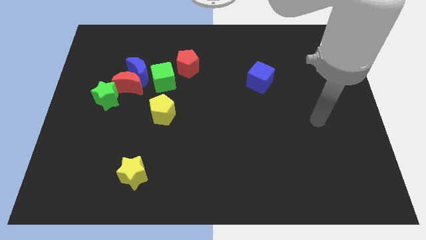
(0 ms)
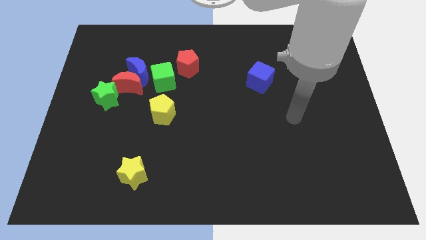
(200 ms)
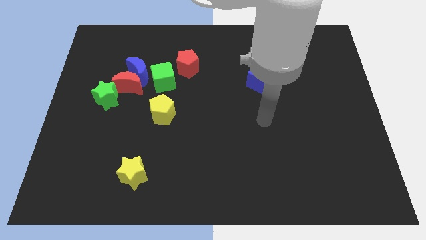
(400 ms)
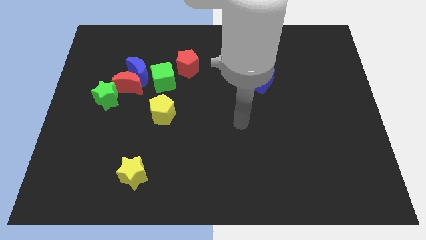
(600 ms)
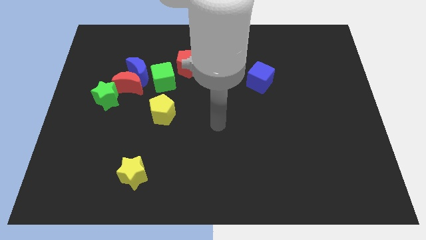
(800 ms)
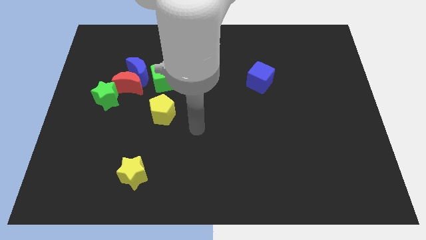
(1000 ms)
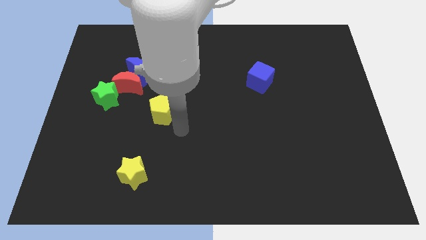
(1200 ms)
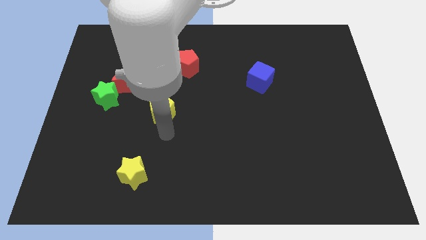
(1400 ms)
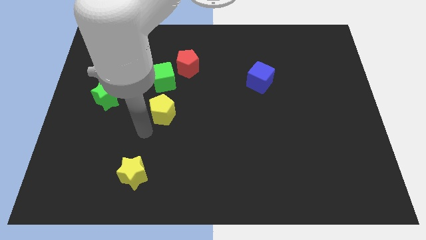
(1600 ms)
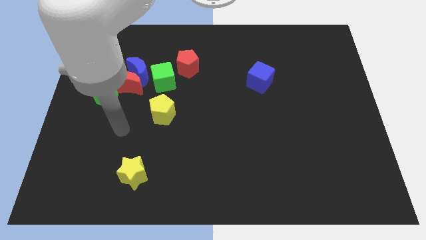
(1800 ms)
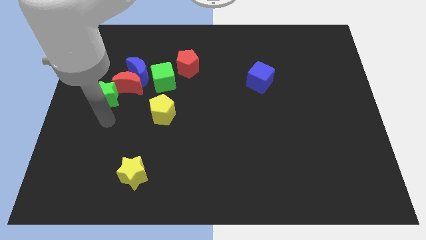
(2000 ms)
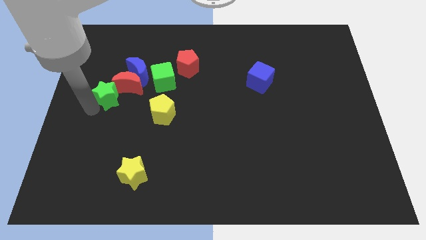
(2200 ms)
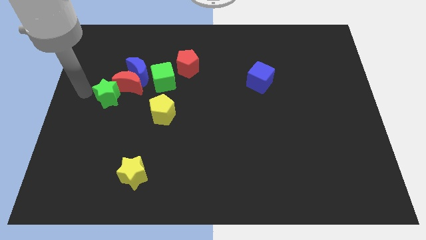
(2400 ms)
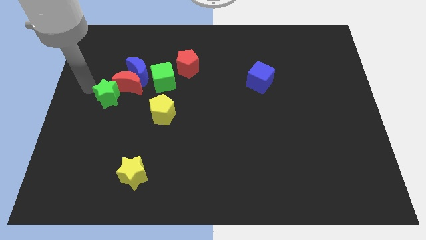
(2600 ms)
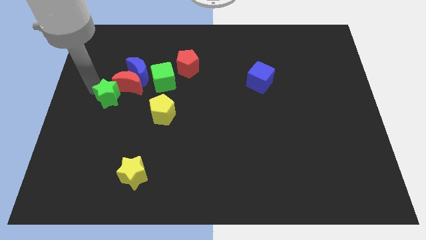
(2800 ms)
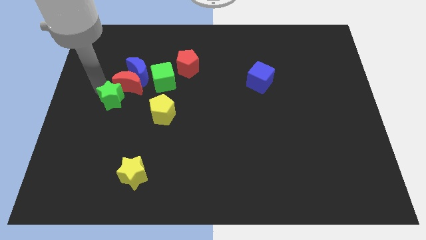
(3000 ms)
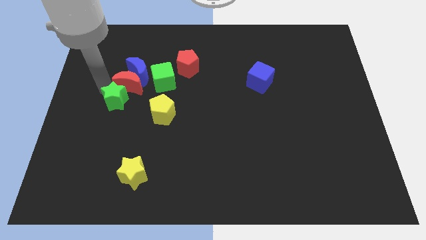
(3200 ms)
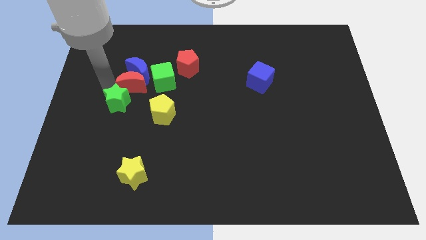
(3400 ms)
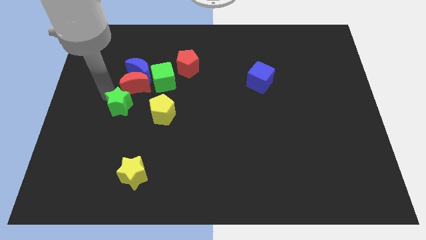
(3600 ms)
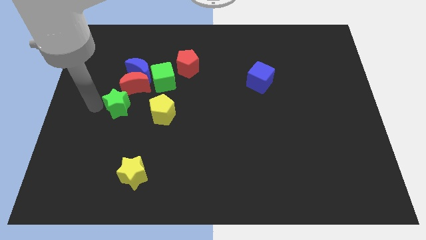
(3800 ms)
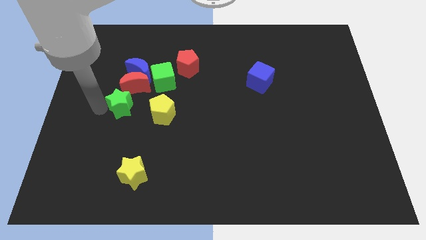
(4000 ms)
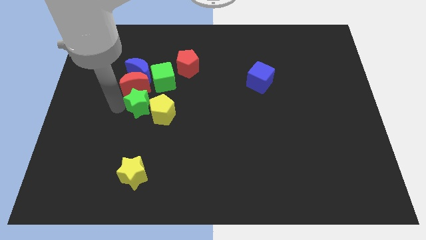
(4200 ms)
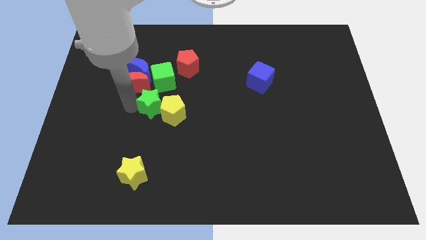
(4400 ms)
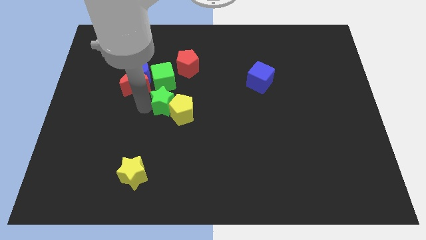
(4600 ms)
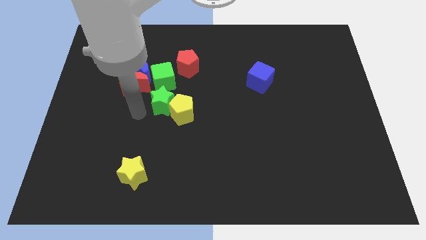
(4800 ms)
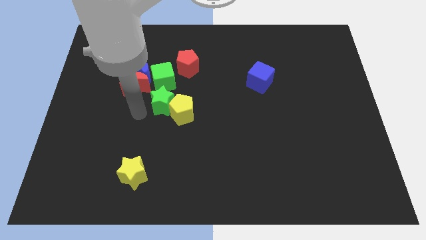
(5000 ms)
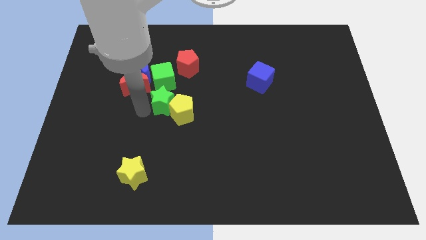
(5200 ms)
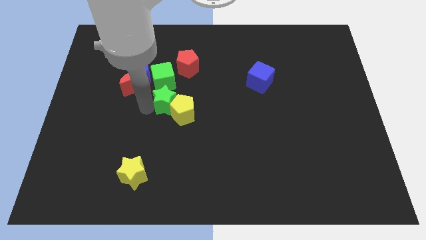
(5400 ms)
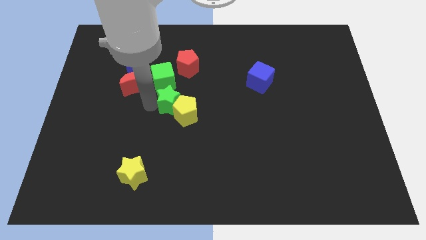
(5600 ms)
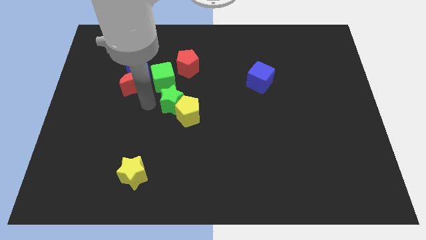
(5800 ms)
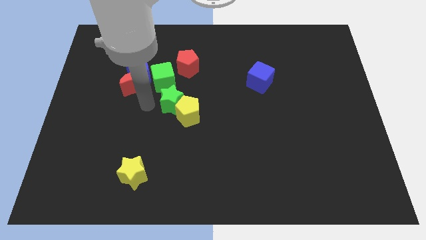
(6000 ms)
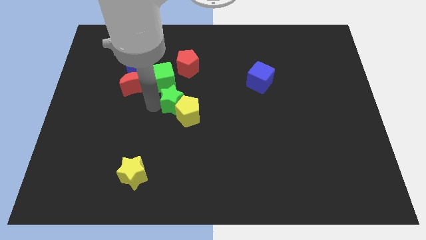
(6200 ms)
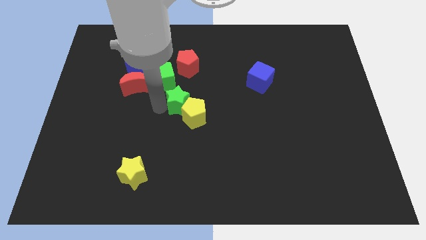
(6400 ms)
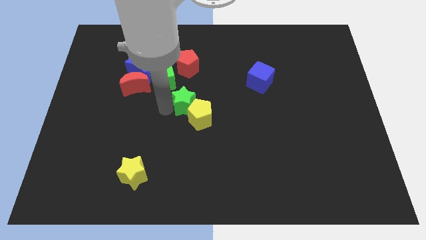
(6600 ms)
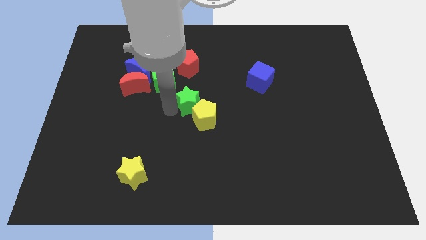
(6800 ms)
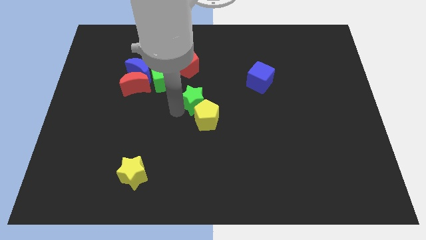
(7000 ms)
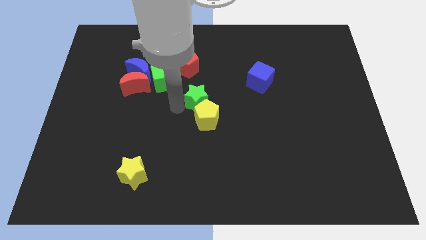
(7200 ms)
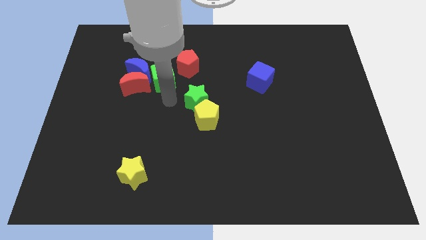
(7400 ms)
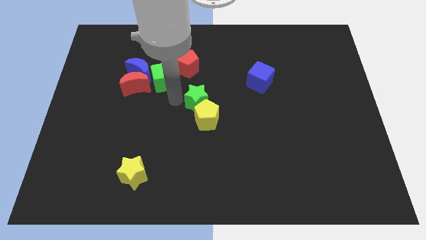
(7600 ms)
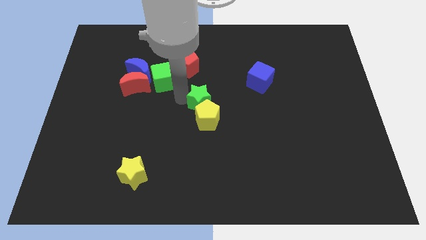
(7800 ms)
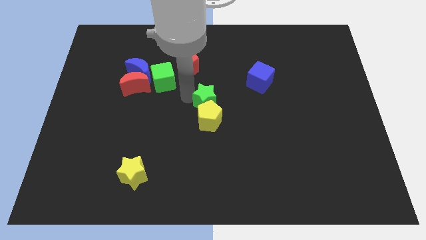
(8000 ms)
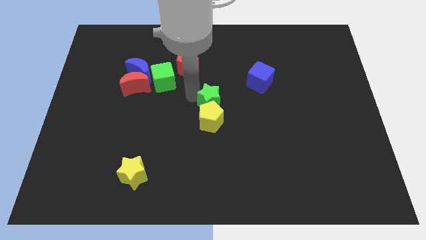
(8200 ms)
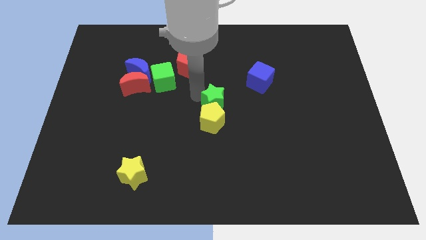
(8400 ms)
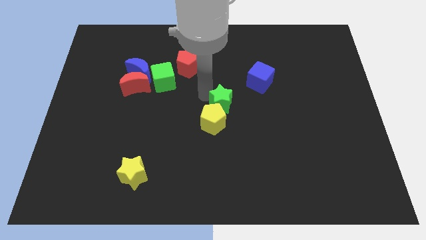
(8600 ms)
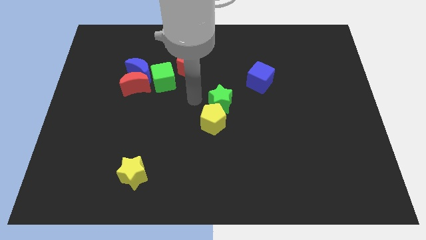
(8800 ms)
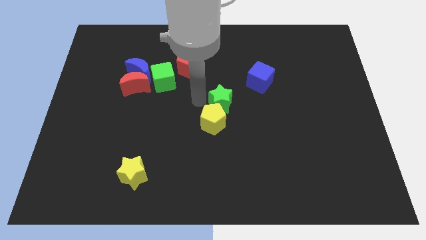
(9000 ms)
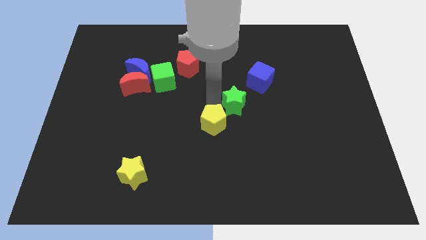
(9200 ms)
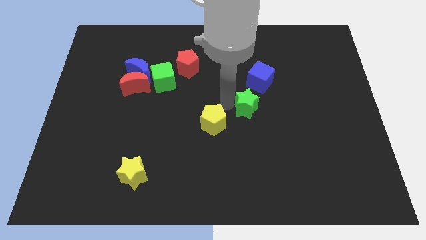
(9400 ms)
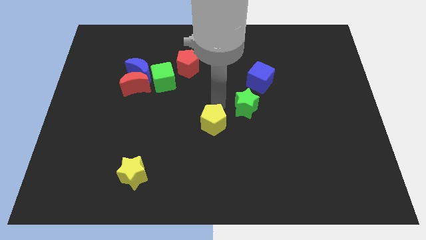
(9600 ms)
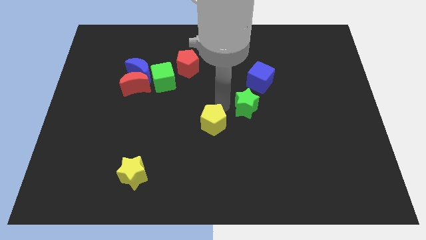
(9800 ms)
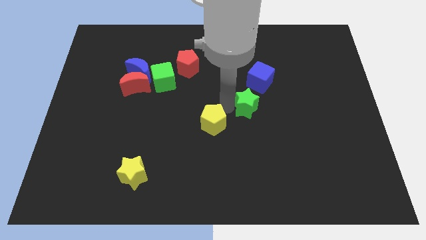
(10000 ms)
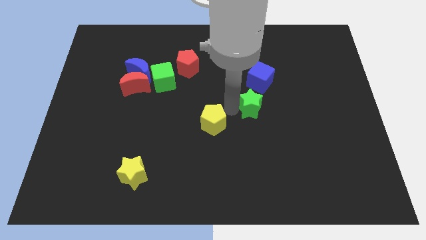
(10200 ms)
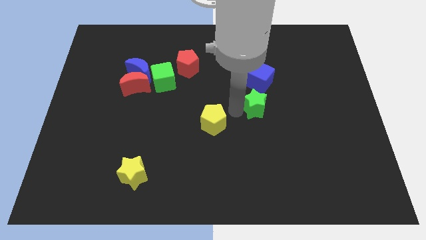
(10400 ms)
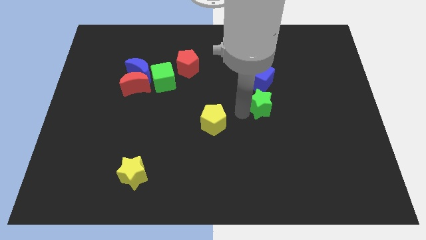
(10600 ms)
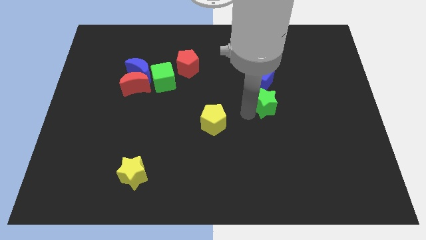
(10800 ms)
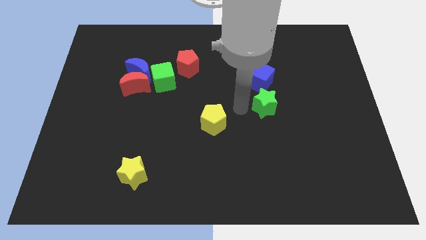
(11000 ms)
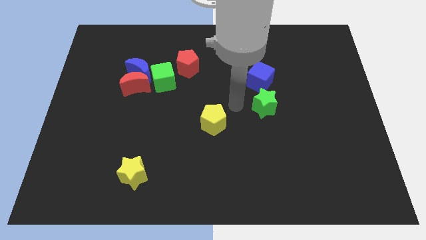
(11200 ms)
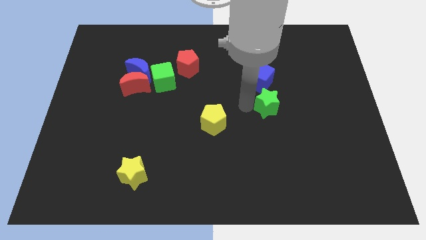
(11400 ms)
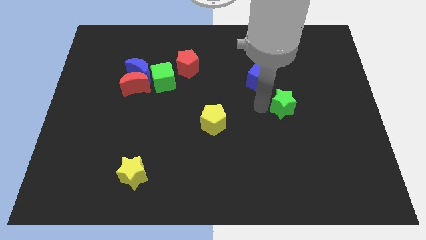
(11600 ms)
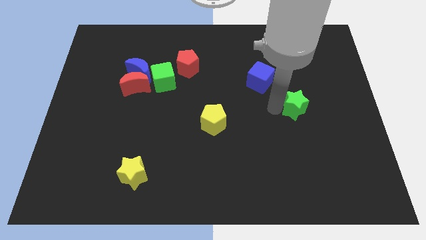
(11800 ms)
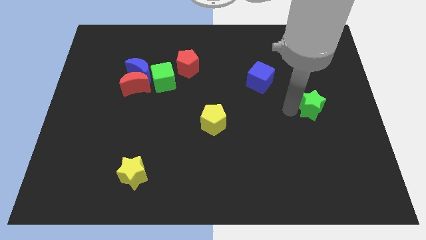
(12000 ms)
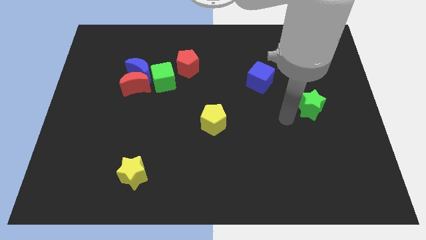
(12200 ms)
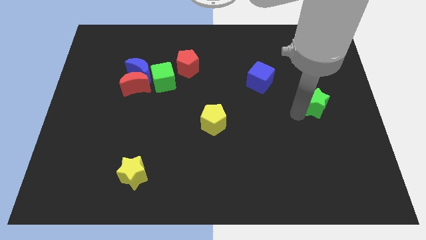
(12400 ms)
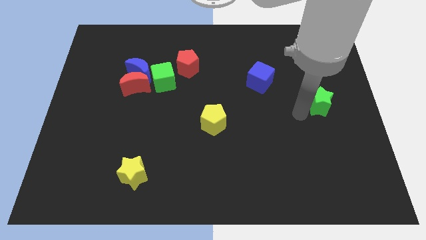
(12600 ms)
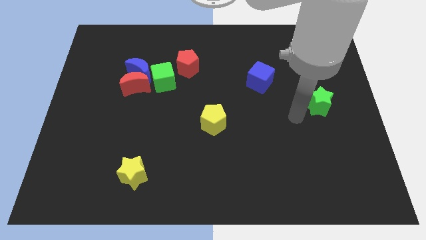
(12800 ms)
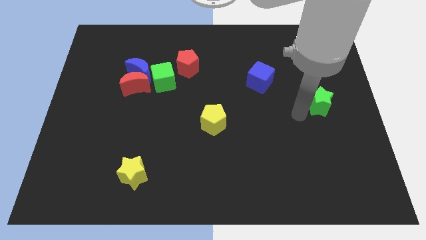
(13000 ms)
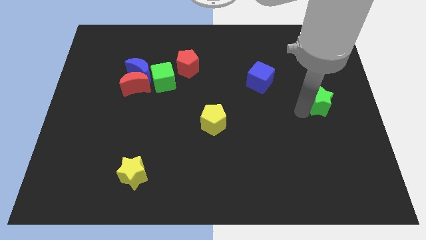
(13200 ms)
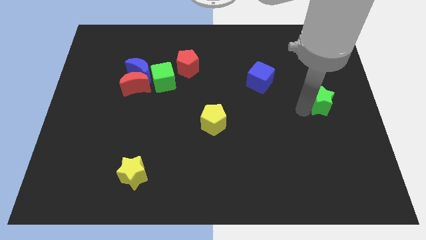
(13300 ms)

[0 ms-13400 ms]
push the green star to the center right

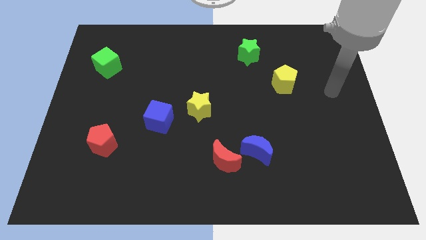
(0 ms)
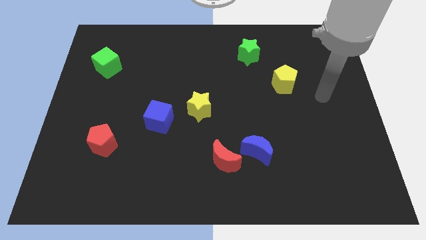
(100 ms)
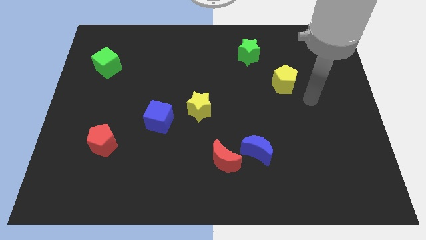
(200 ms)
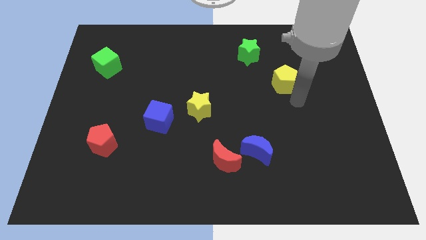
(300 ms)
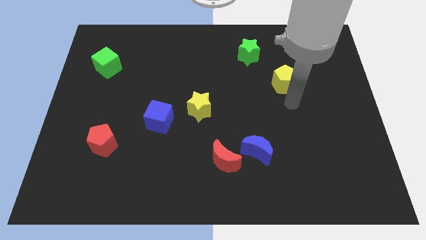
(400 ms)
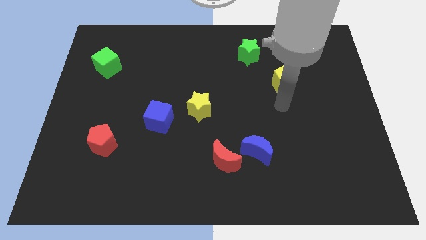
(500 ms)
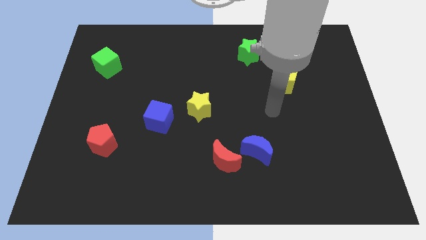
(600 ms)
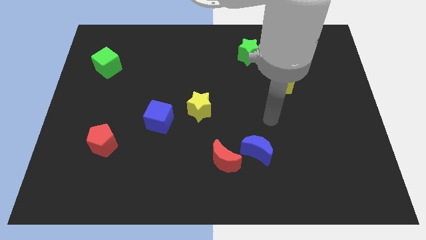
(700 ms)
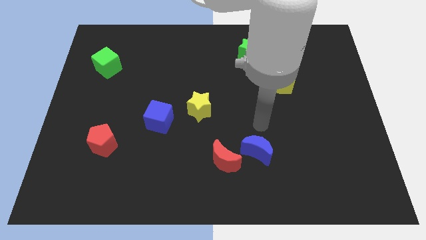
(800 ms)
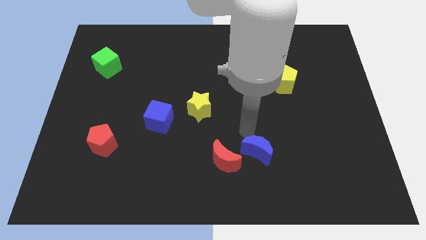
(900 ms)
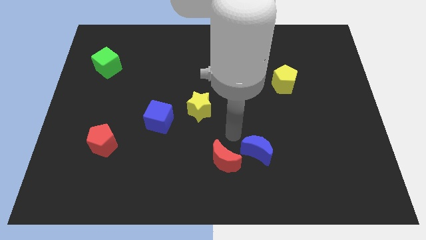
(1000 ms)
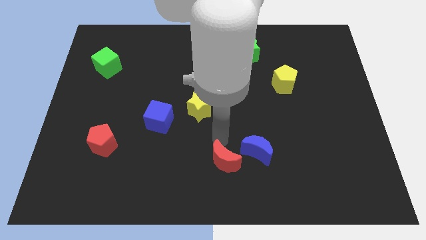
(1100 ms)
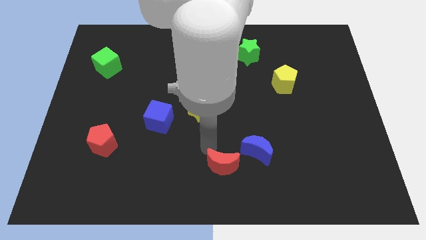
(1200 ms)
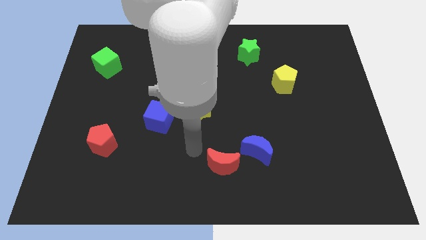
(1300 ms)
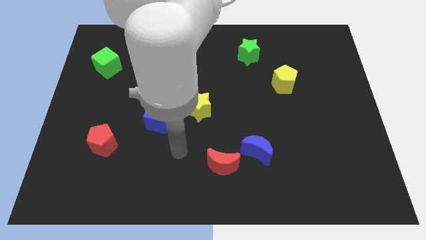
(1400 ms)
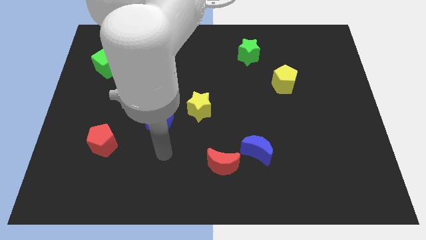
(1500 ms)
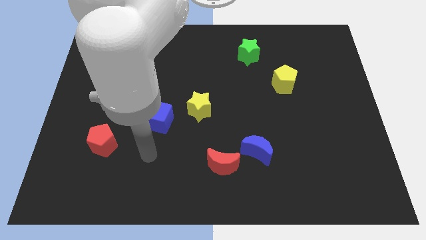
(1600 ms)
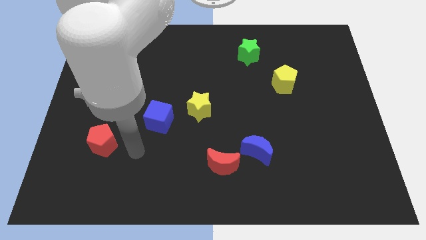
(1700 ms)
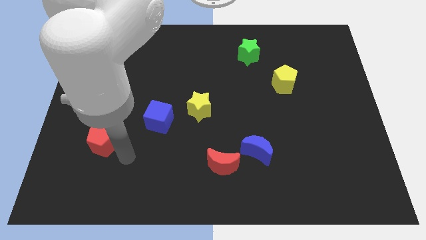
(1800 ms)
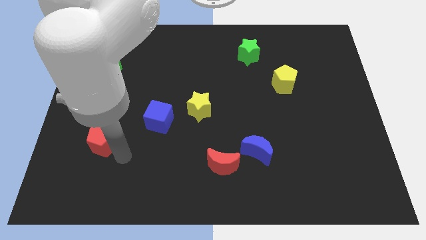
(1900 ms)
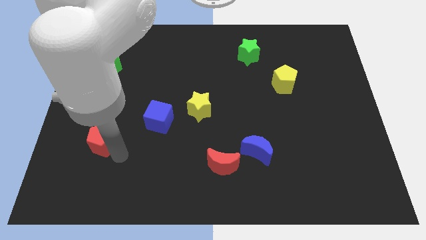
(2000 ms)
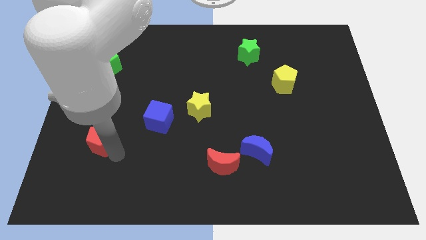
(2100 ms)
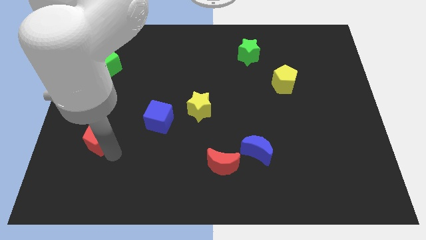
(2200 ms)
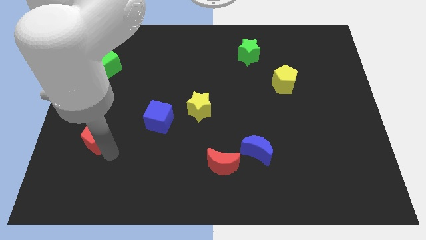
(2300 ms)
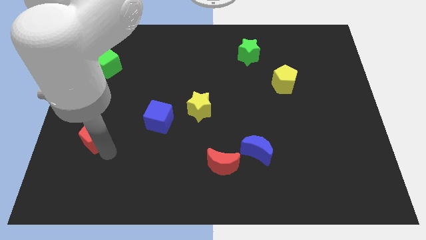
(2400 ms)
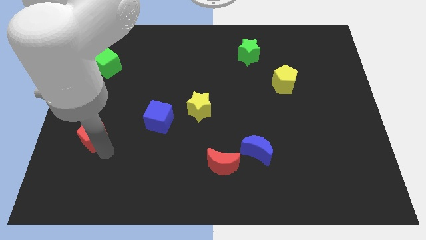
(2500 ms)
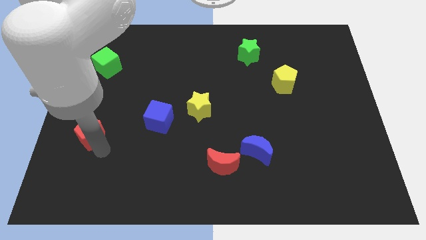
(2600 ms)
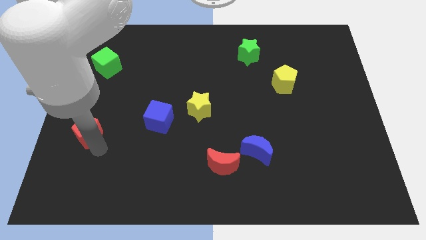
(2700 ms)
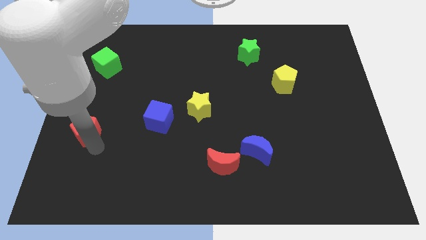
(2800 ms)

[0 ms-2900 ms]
put the red pentagon to the left side of the board
